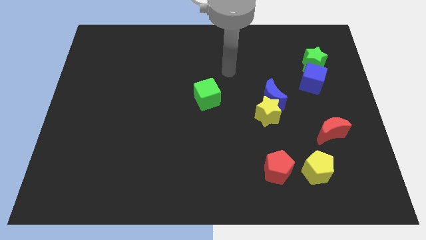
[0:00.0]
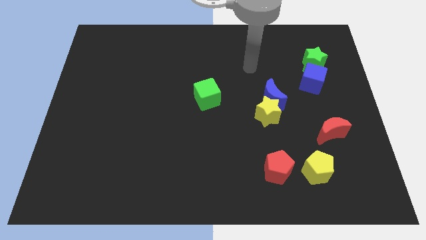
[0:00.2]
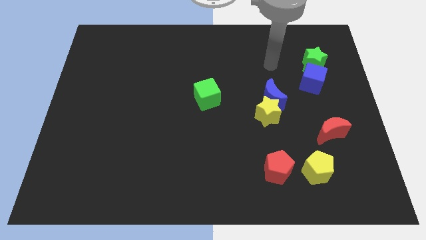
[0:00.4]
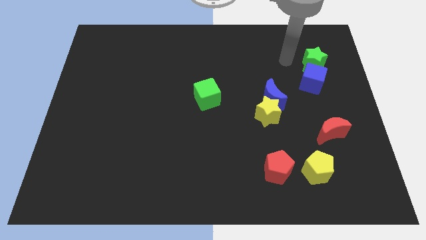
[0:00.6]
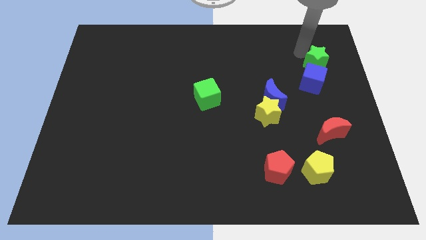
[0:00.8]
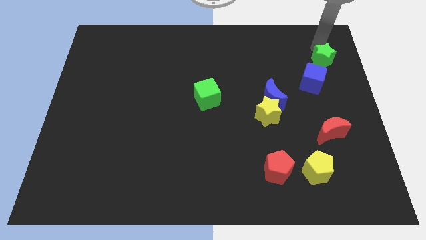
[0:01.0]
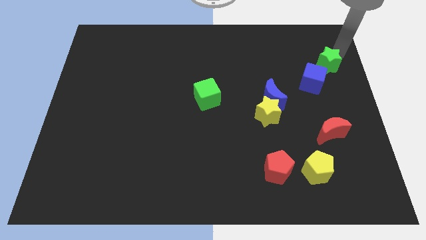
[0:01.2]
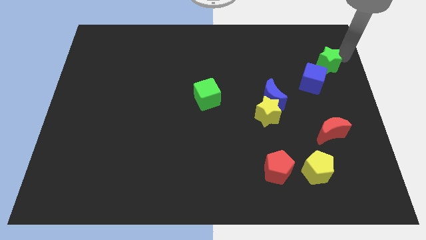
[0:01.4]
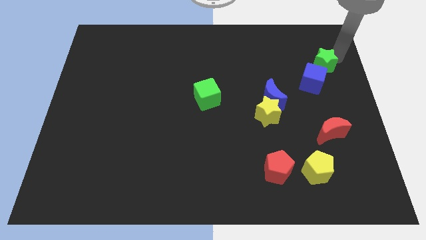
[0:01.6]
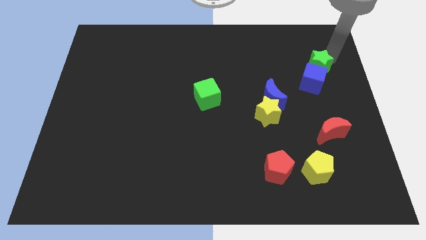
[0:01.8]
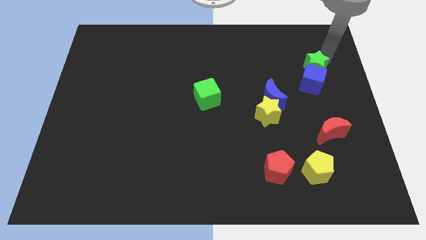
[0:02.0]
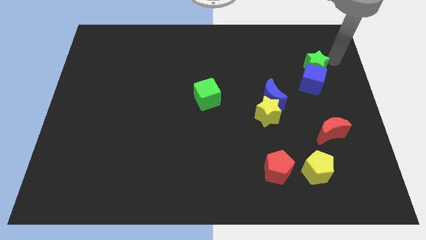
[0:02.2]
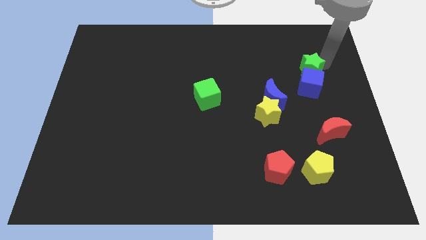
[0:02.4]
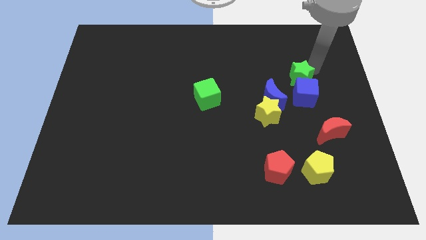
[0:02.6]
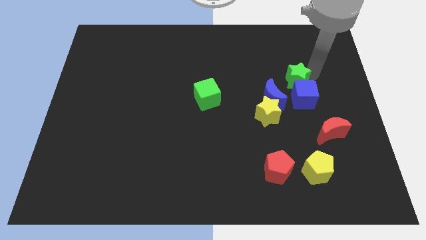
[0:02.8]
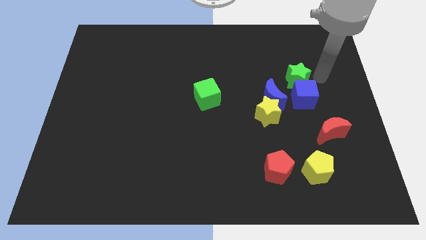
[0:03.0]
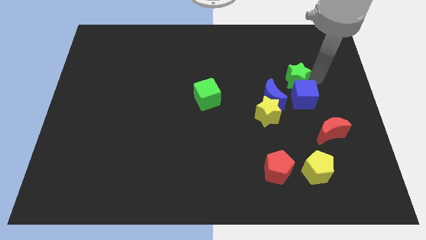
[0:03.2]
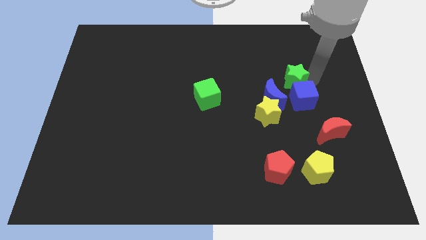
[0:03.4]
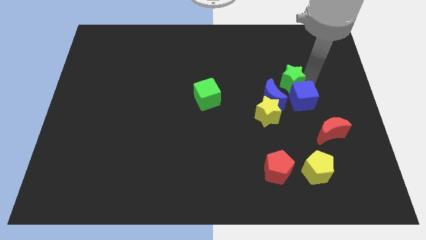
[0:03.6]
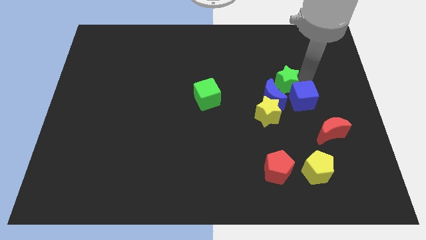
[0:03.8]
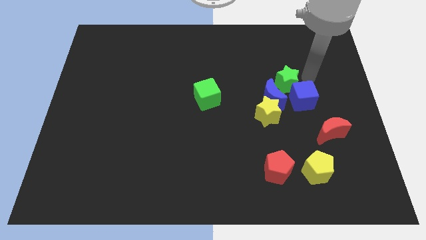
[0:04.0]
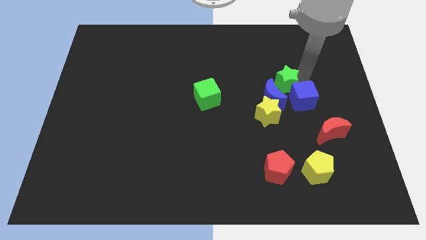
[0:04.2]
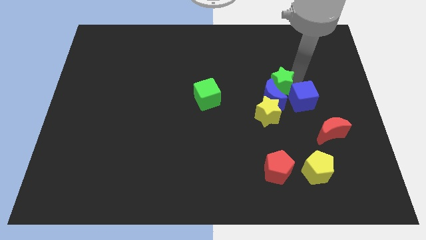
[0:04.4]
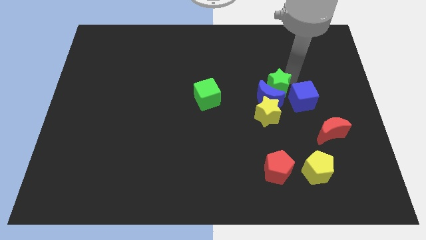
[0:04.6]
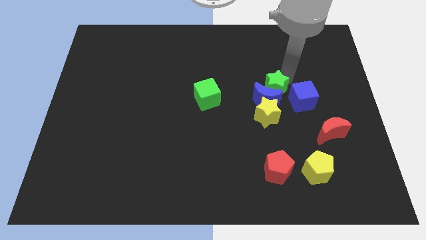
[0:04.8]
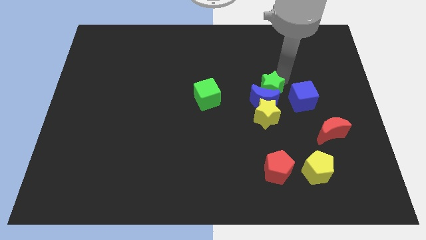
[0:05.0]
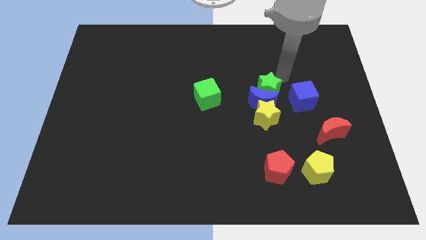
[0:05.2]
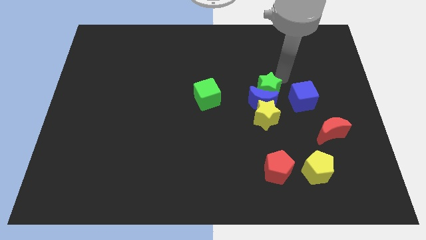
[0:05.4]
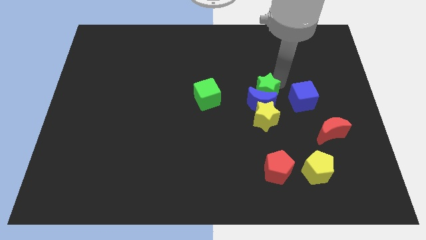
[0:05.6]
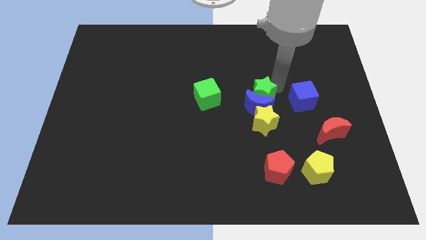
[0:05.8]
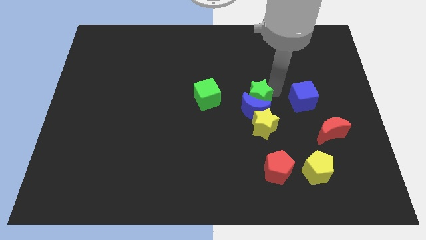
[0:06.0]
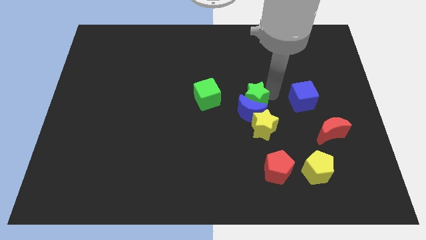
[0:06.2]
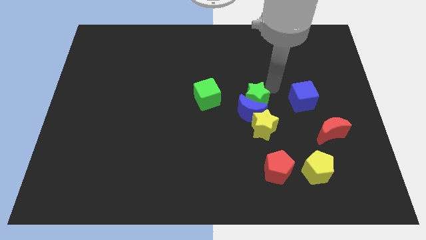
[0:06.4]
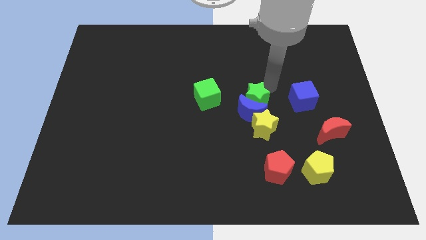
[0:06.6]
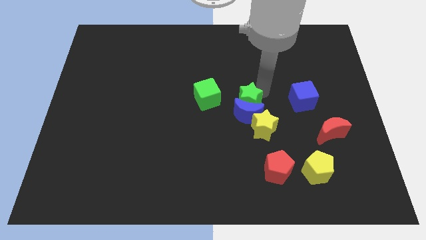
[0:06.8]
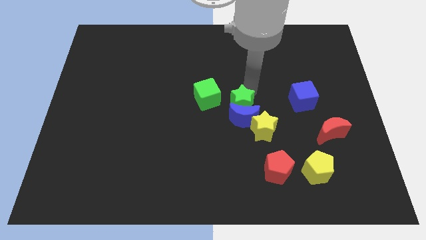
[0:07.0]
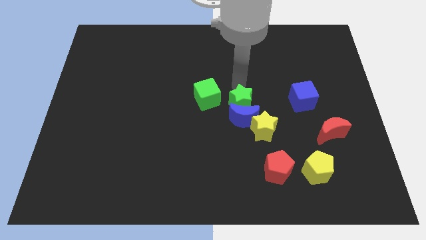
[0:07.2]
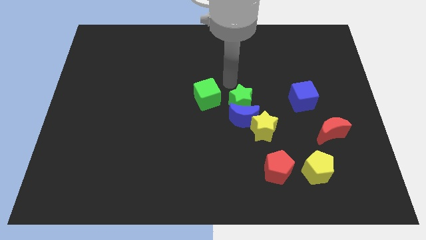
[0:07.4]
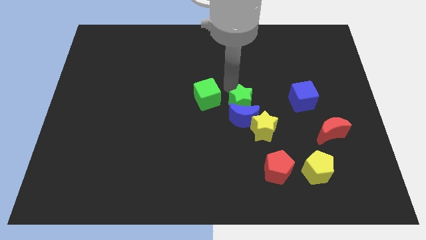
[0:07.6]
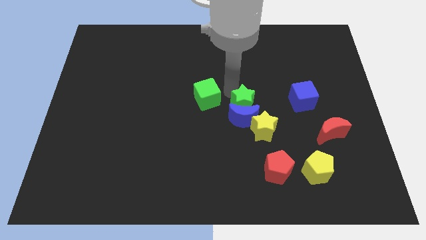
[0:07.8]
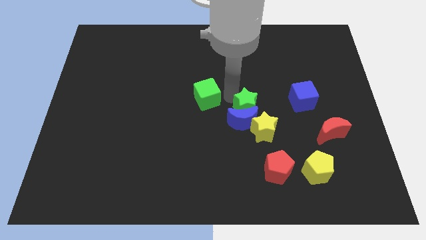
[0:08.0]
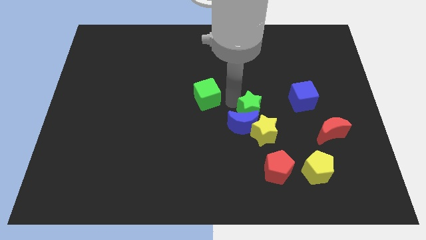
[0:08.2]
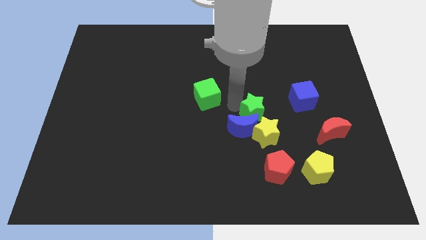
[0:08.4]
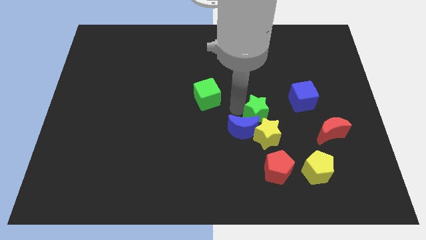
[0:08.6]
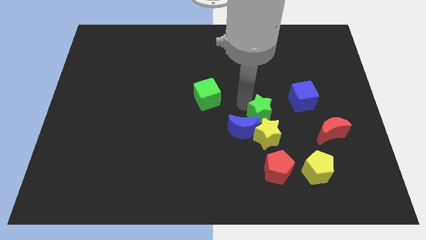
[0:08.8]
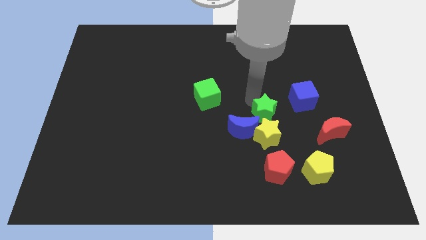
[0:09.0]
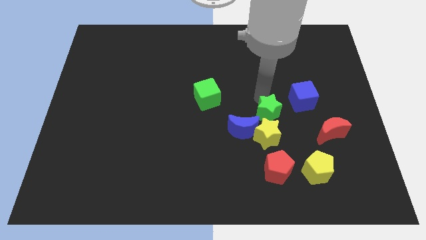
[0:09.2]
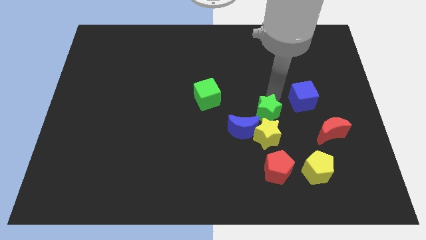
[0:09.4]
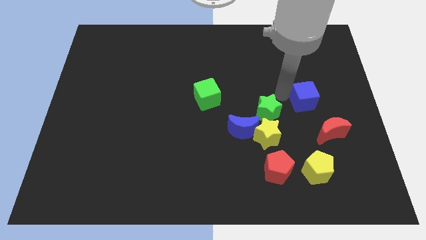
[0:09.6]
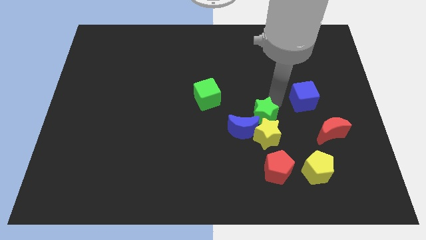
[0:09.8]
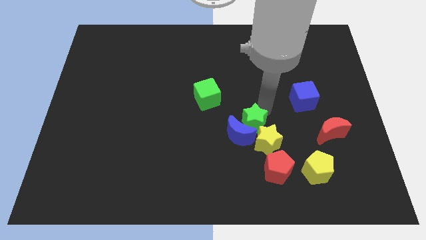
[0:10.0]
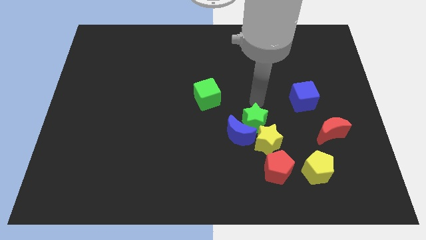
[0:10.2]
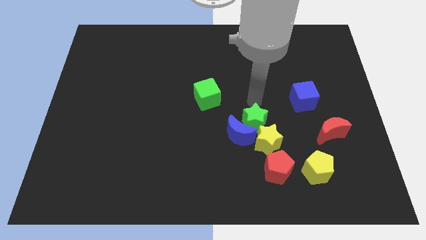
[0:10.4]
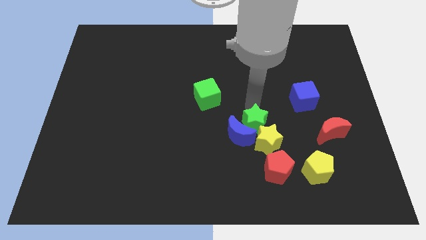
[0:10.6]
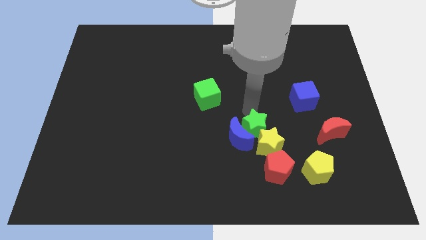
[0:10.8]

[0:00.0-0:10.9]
move the green star diagonally up and to the left of the red pentagon

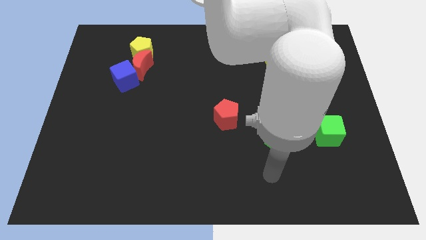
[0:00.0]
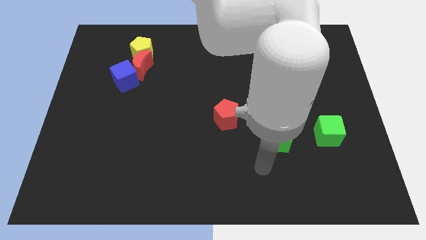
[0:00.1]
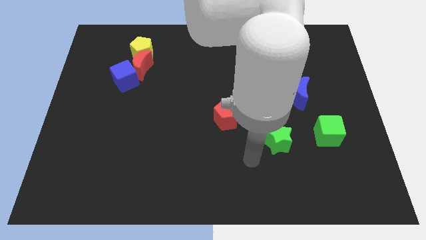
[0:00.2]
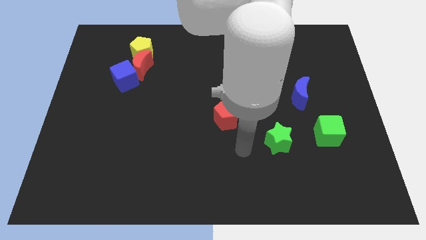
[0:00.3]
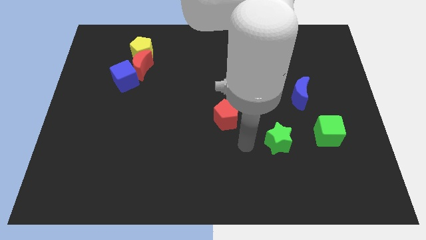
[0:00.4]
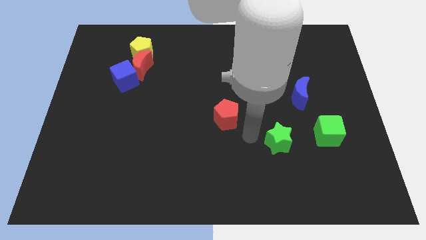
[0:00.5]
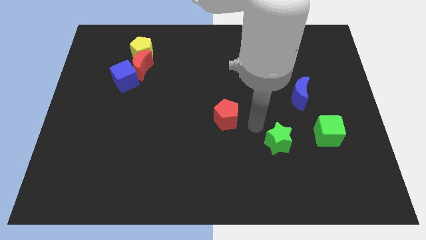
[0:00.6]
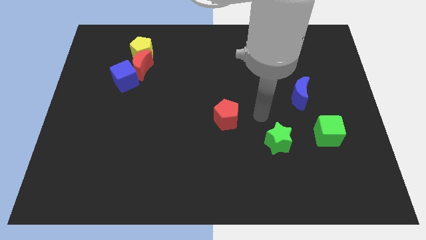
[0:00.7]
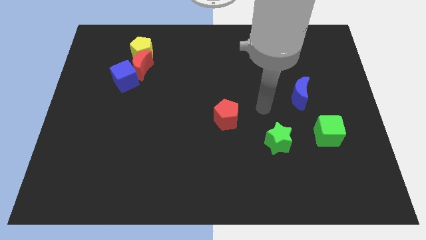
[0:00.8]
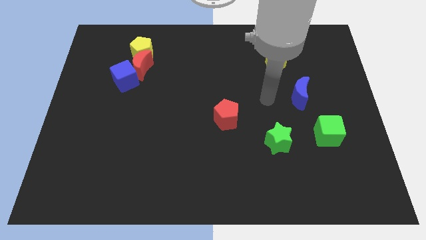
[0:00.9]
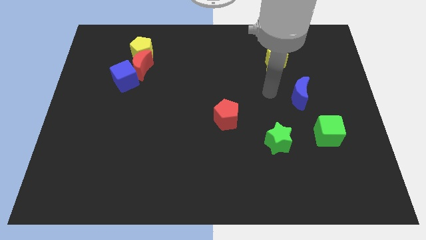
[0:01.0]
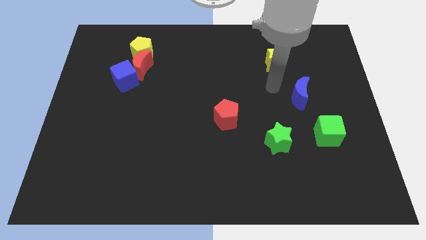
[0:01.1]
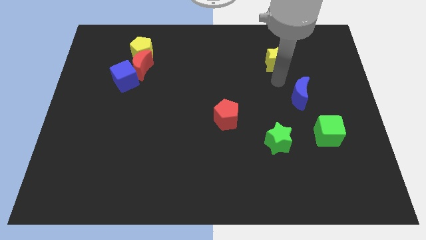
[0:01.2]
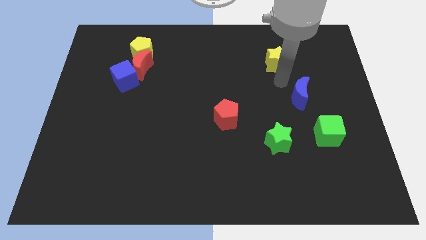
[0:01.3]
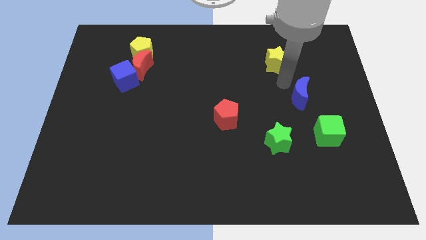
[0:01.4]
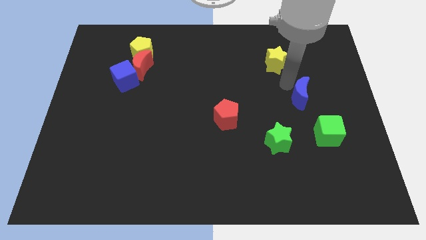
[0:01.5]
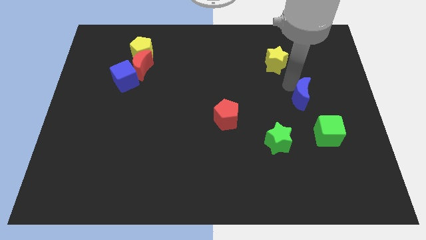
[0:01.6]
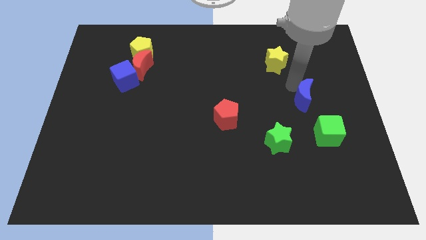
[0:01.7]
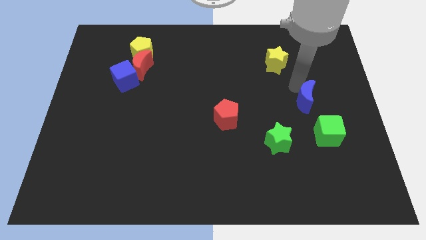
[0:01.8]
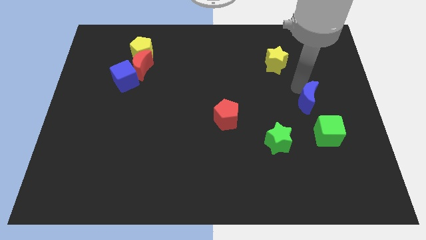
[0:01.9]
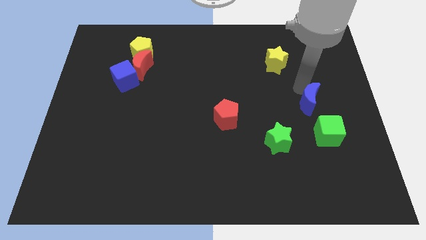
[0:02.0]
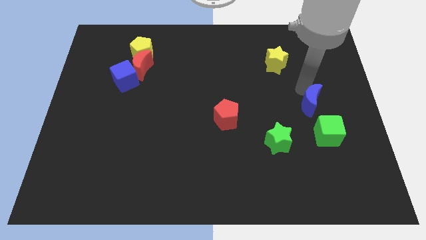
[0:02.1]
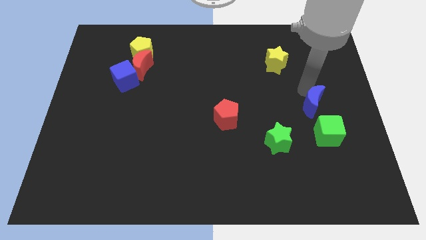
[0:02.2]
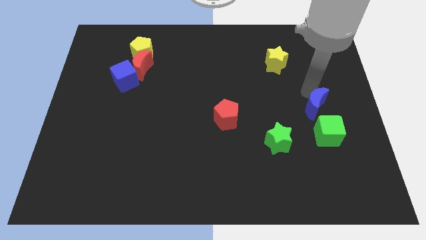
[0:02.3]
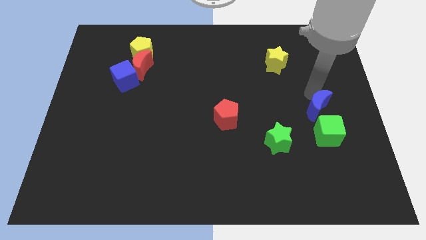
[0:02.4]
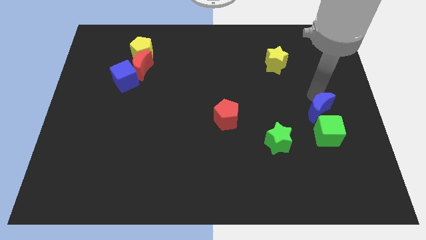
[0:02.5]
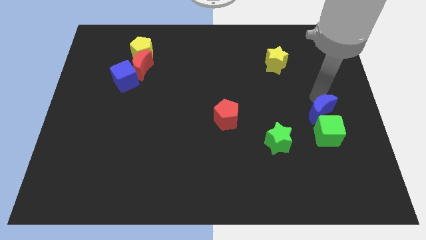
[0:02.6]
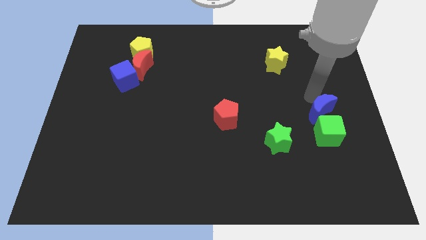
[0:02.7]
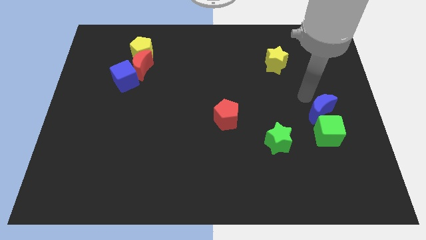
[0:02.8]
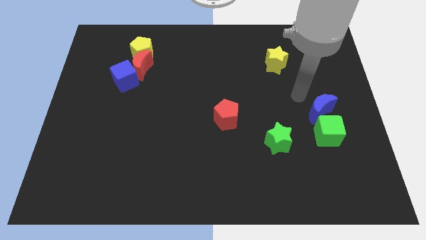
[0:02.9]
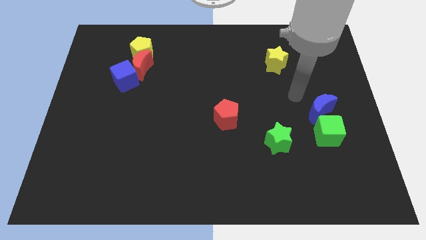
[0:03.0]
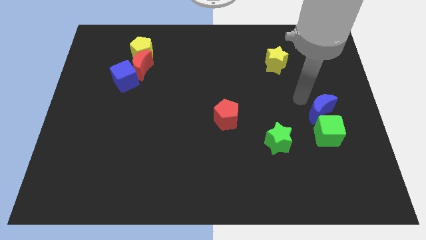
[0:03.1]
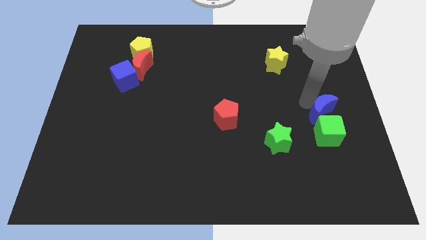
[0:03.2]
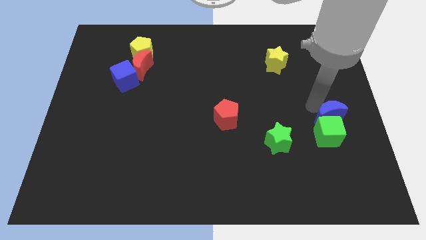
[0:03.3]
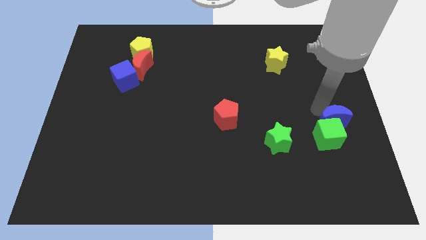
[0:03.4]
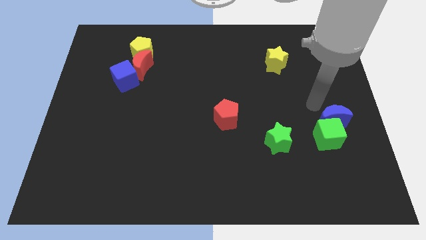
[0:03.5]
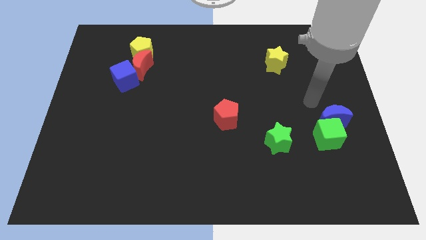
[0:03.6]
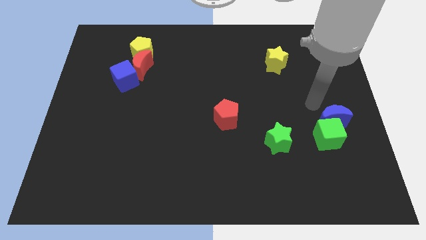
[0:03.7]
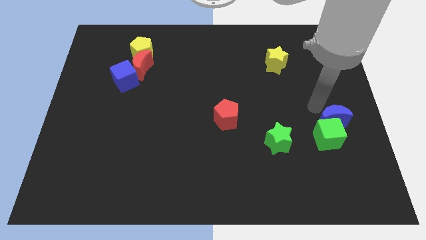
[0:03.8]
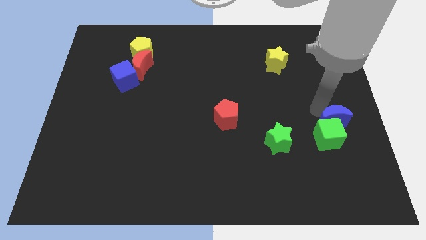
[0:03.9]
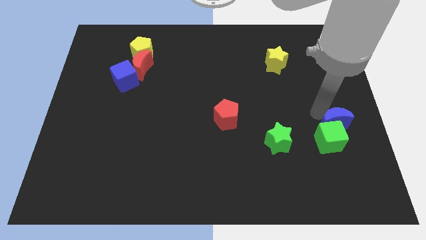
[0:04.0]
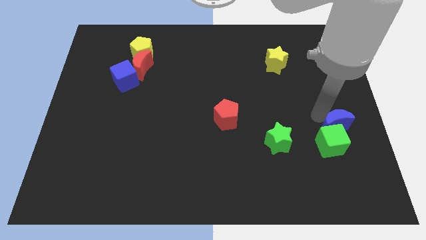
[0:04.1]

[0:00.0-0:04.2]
push the blue moon just right of the green star
